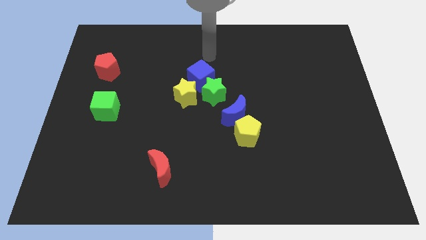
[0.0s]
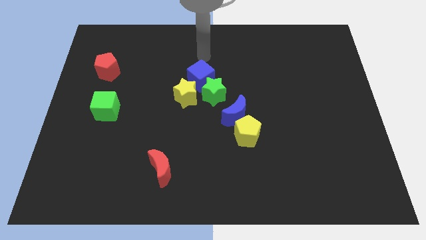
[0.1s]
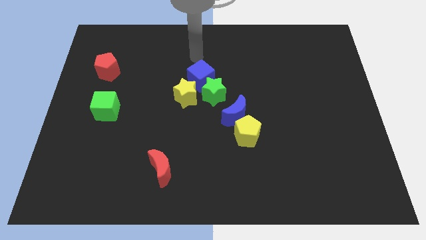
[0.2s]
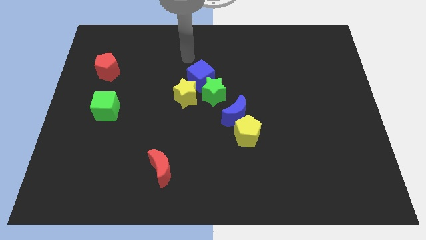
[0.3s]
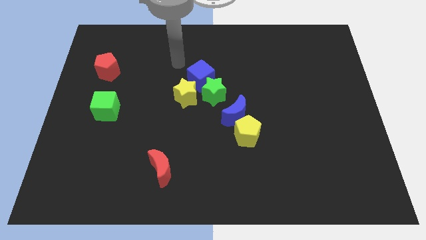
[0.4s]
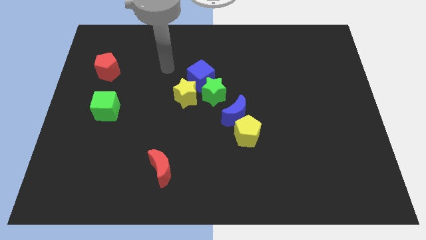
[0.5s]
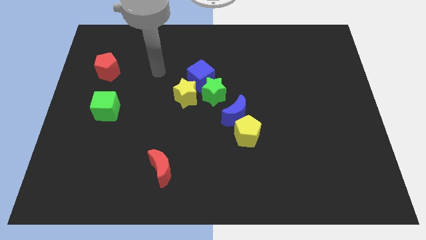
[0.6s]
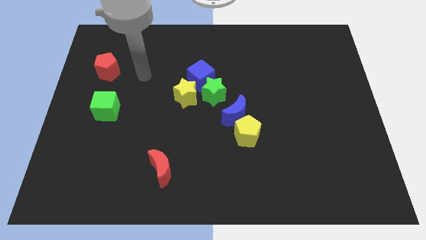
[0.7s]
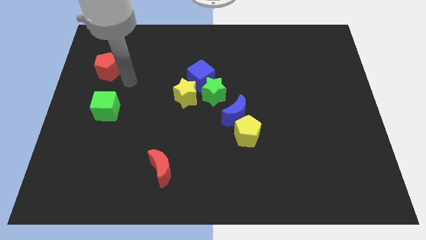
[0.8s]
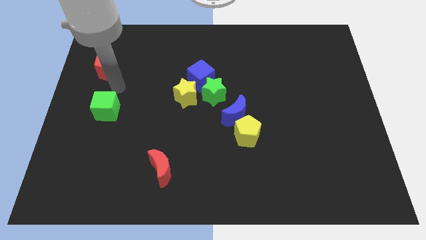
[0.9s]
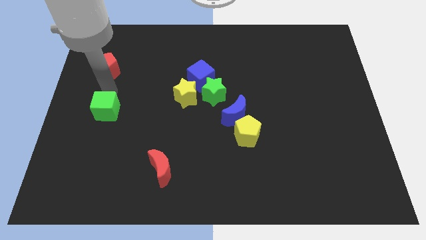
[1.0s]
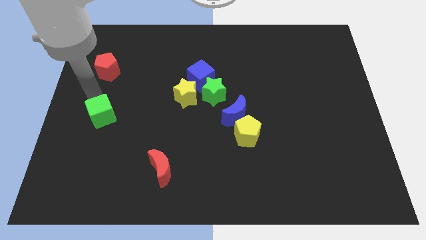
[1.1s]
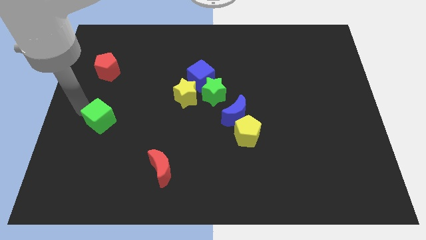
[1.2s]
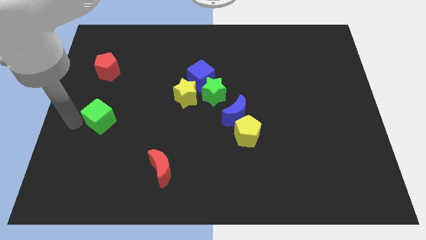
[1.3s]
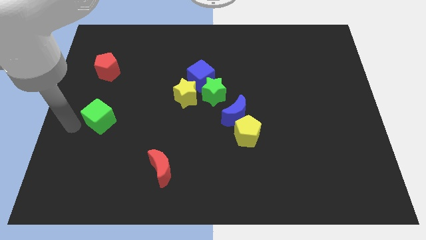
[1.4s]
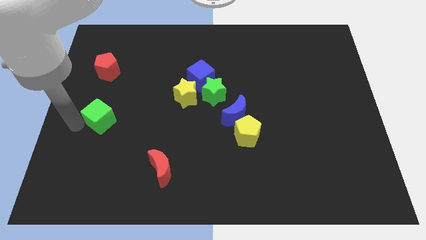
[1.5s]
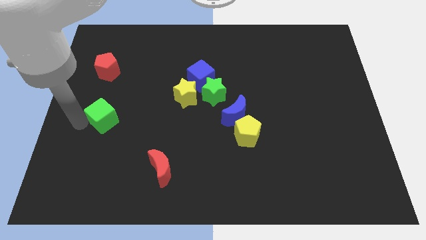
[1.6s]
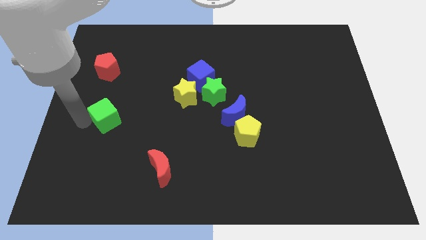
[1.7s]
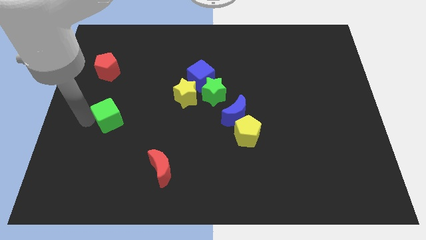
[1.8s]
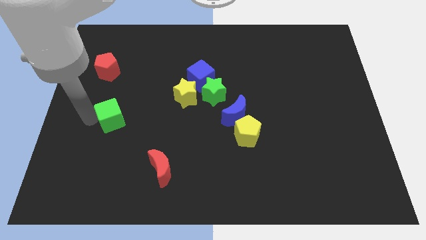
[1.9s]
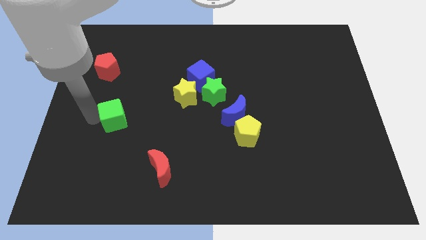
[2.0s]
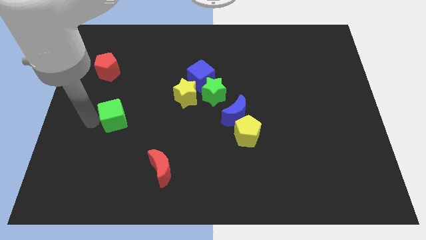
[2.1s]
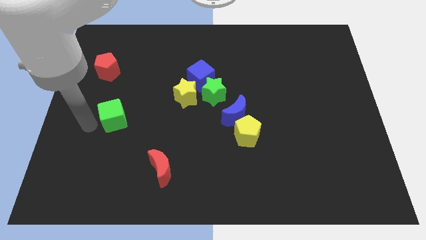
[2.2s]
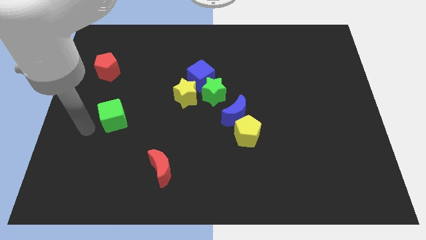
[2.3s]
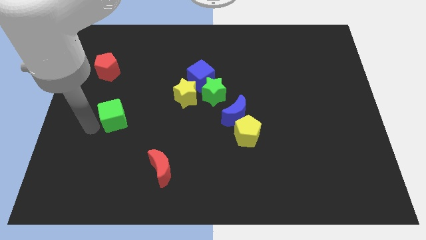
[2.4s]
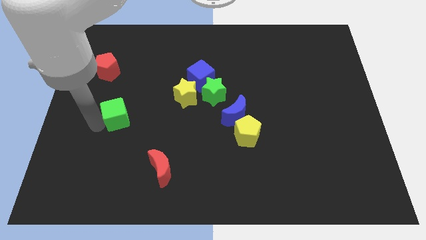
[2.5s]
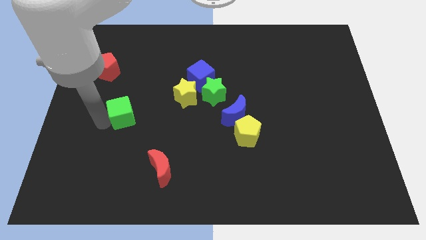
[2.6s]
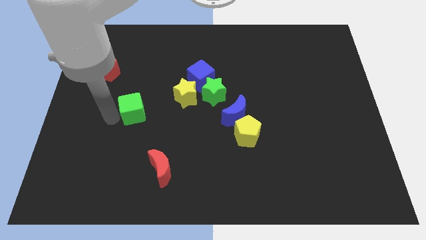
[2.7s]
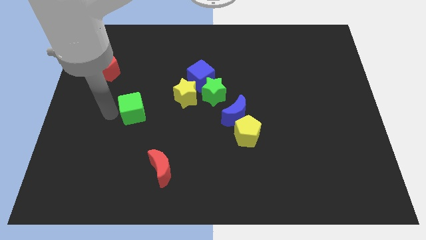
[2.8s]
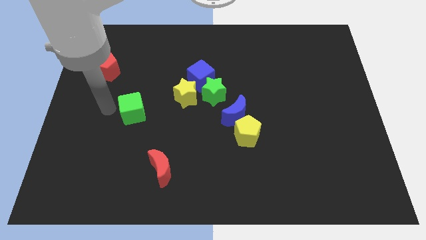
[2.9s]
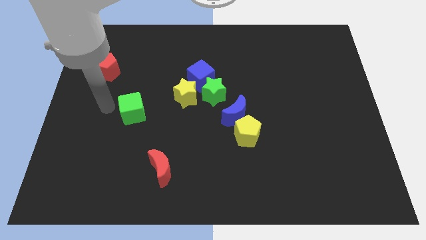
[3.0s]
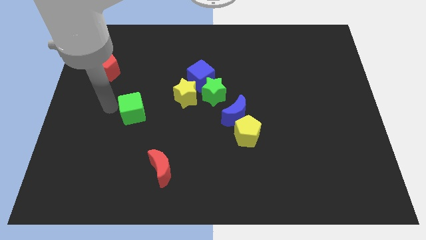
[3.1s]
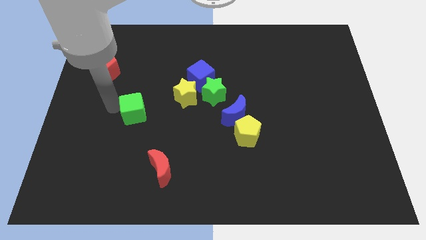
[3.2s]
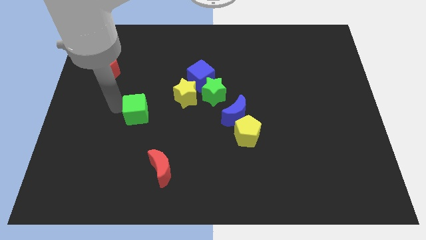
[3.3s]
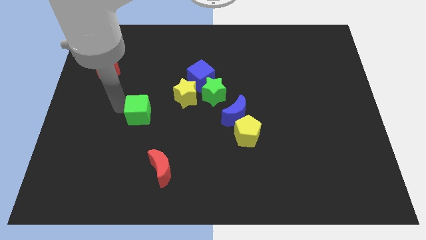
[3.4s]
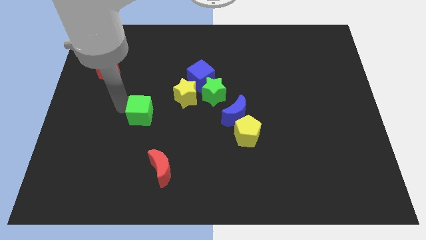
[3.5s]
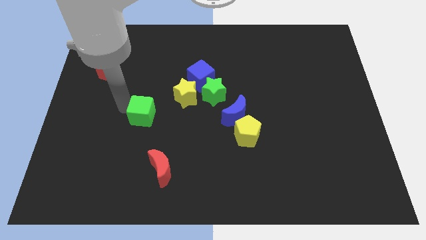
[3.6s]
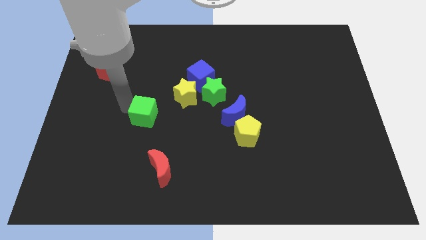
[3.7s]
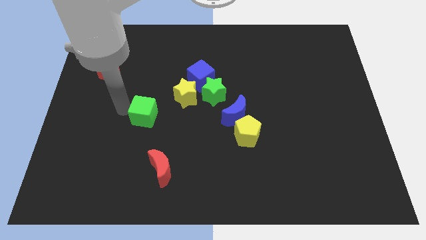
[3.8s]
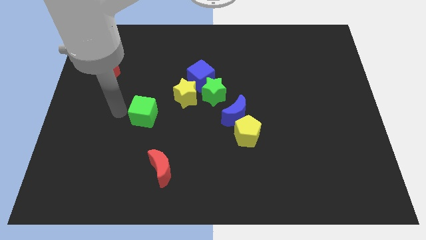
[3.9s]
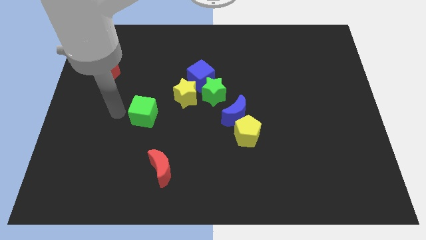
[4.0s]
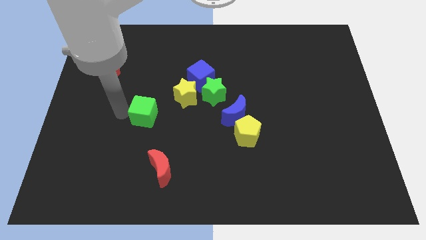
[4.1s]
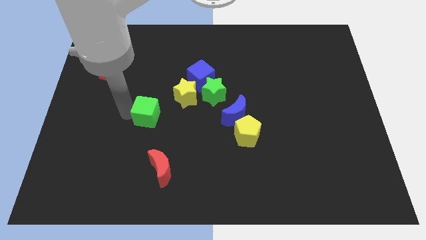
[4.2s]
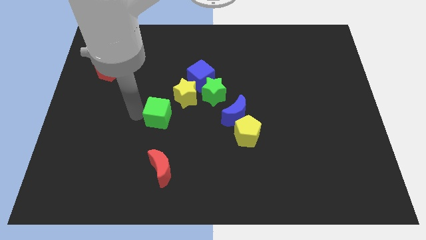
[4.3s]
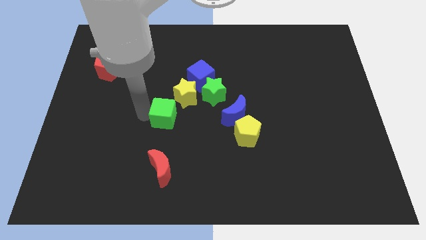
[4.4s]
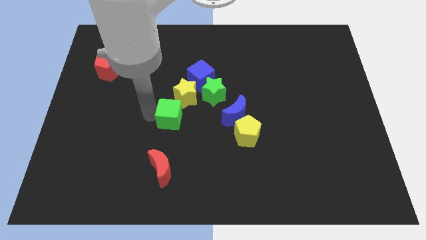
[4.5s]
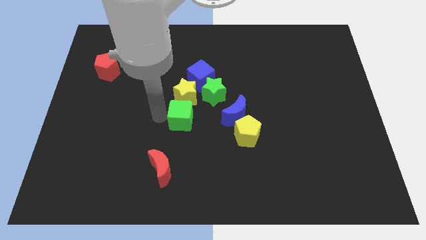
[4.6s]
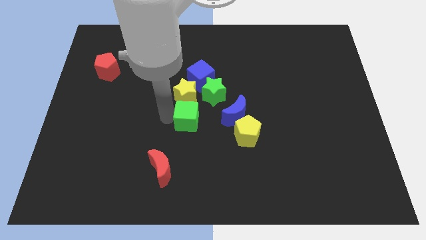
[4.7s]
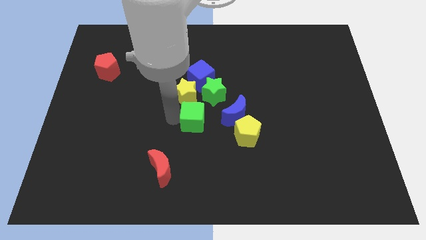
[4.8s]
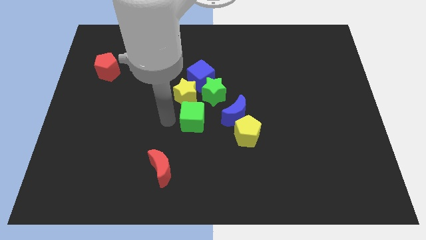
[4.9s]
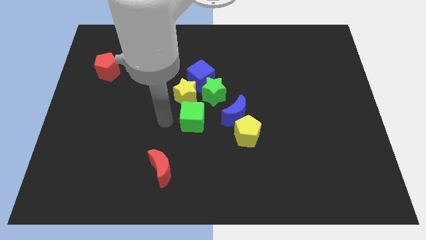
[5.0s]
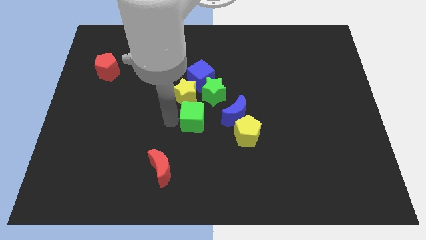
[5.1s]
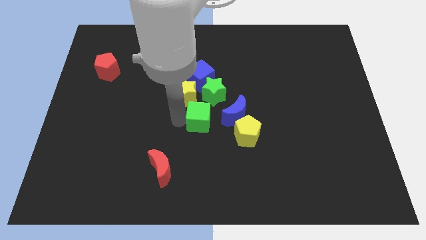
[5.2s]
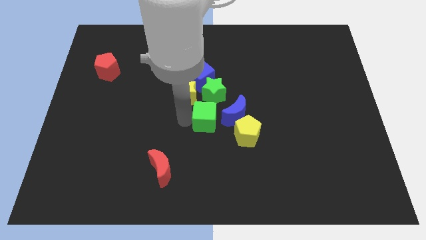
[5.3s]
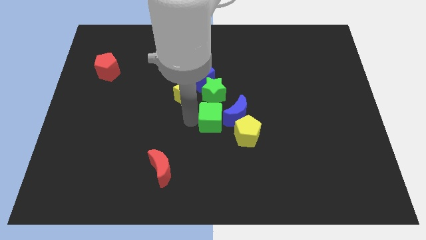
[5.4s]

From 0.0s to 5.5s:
move the green cube next to the blue moon

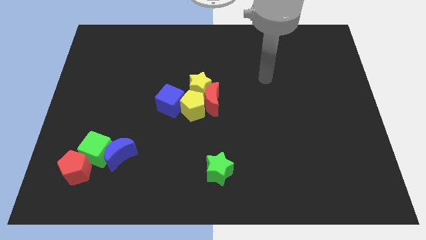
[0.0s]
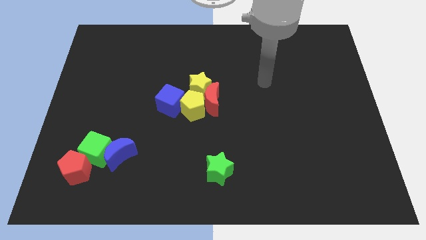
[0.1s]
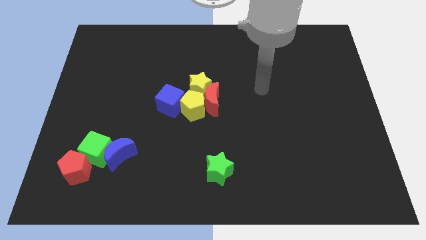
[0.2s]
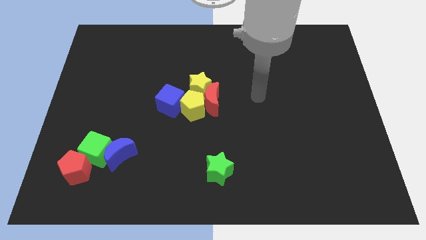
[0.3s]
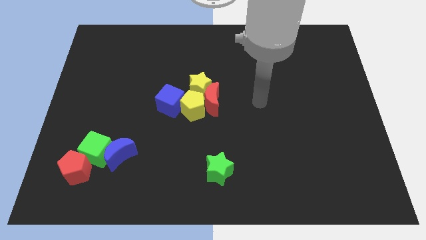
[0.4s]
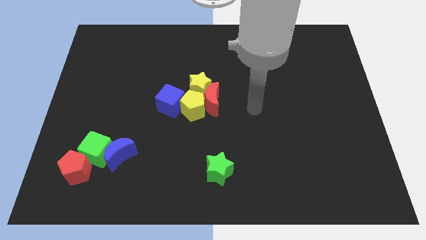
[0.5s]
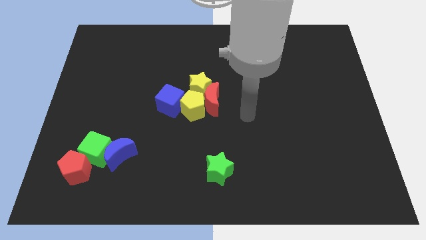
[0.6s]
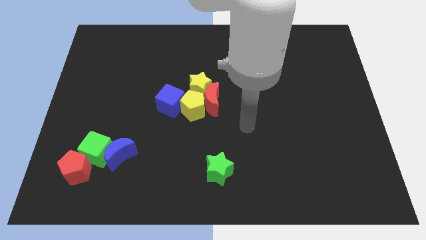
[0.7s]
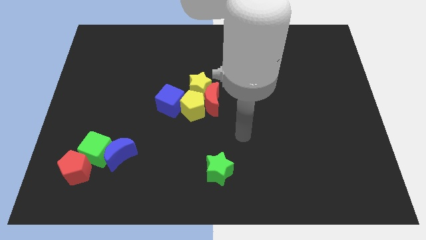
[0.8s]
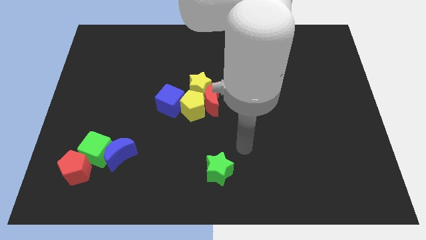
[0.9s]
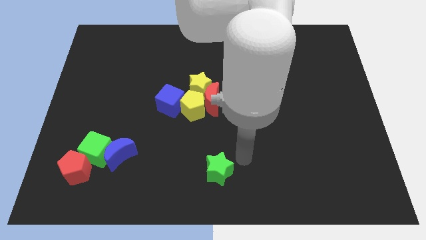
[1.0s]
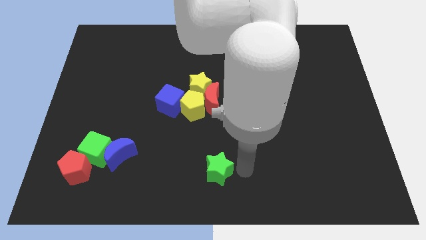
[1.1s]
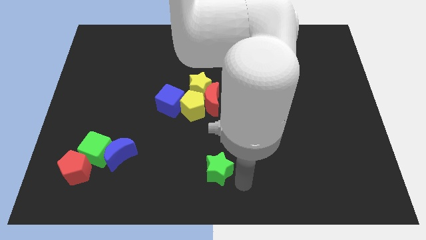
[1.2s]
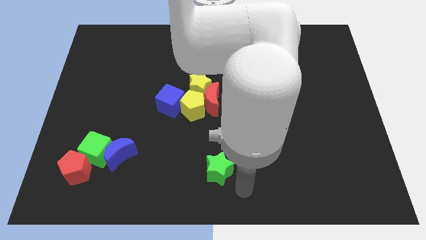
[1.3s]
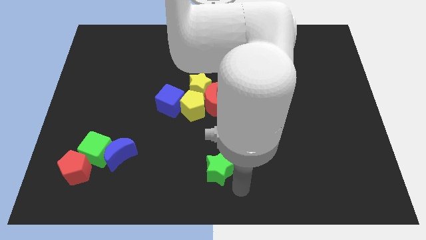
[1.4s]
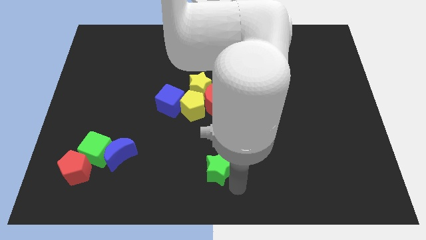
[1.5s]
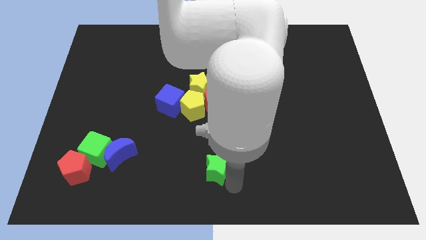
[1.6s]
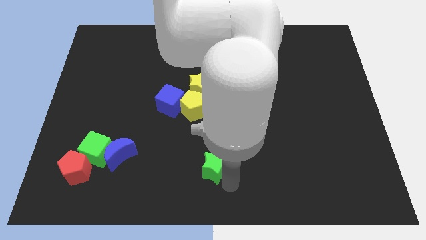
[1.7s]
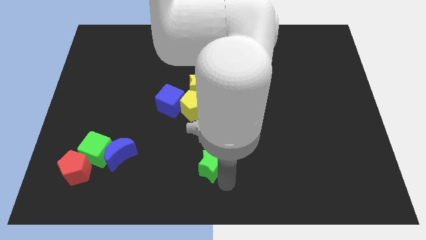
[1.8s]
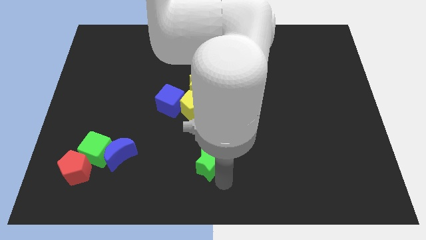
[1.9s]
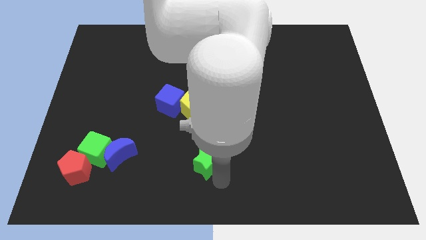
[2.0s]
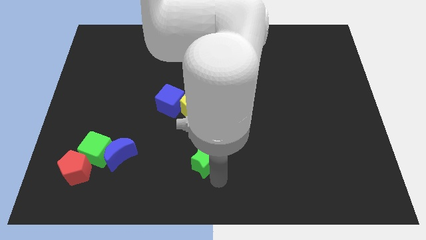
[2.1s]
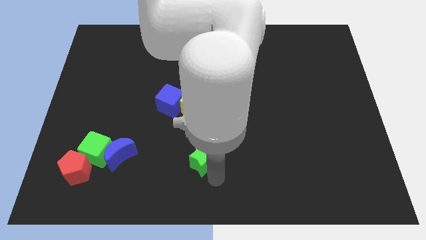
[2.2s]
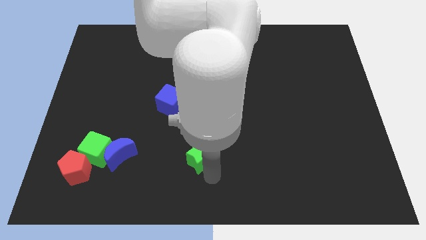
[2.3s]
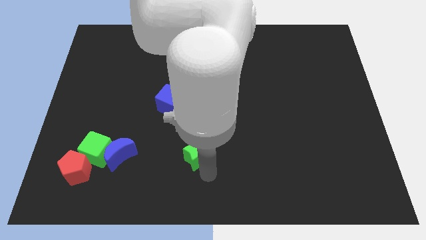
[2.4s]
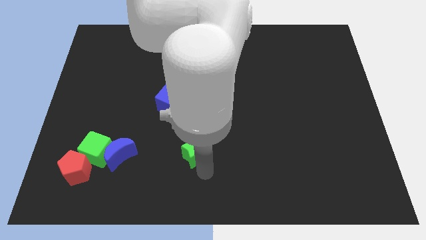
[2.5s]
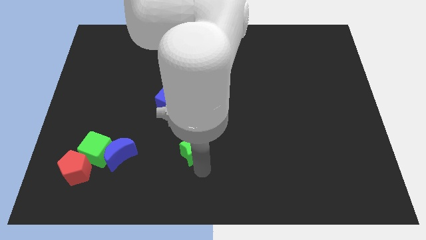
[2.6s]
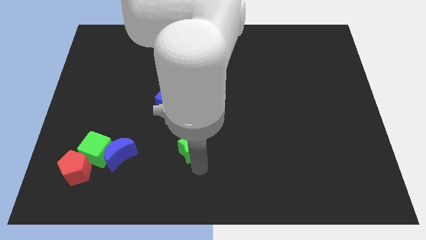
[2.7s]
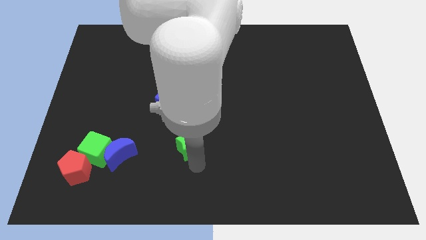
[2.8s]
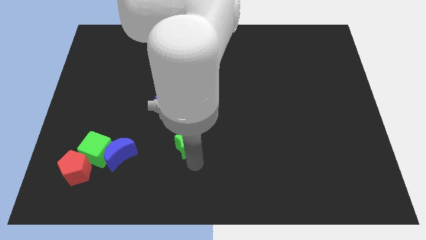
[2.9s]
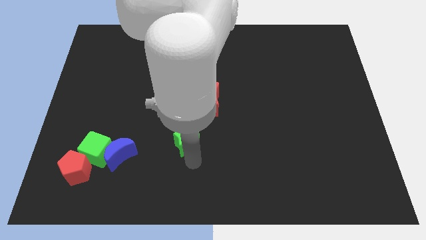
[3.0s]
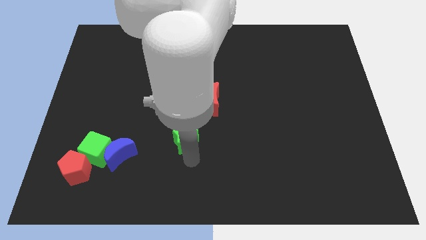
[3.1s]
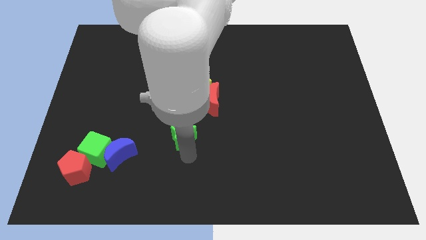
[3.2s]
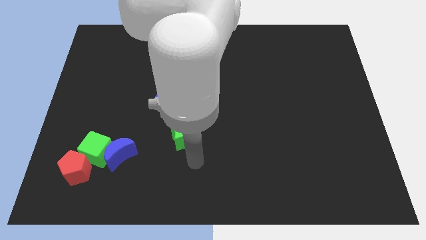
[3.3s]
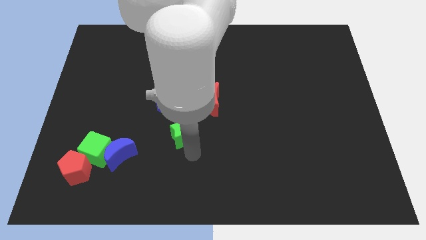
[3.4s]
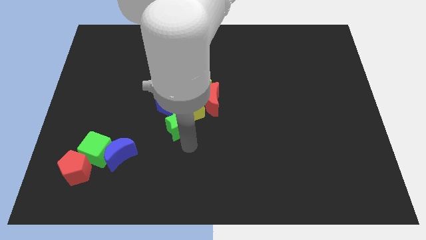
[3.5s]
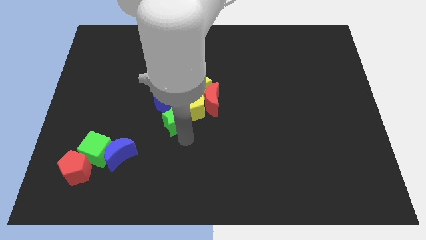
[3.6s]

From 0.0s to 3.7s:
push the green star close to the blue cube
